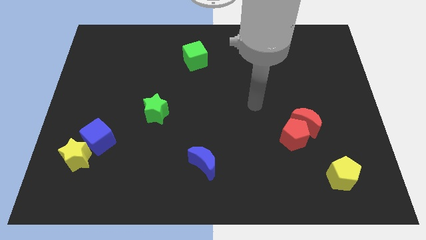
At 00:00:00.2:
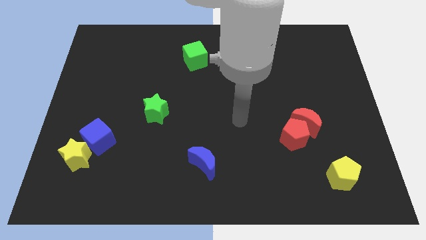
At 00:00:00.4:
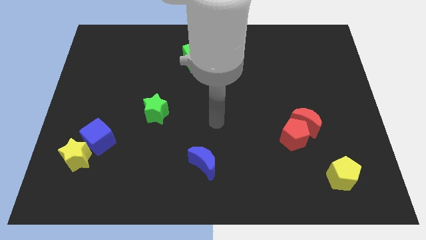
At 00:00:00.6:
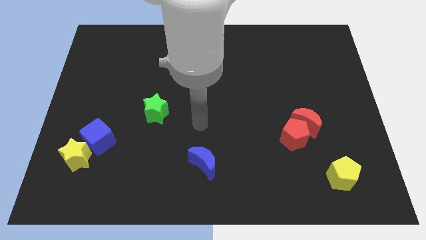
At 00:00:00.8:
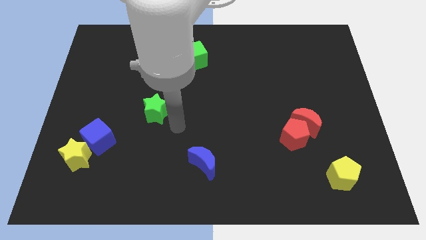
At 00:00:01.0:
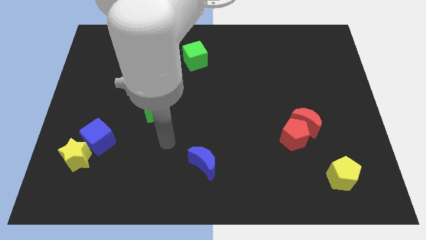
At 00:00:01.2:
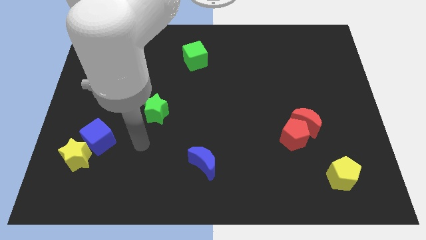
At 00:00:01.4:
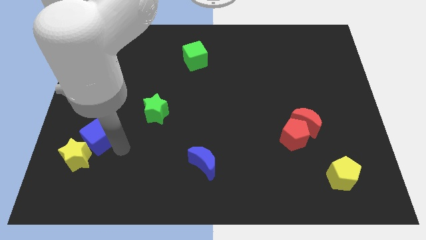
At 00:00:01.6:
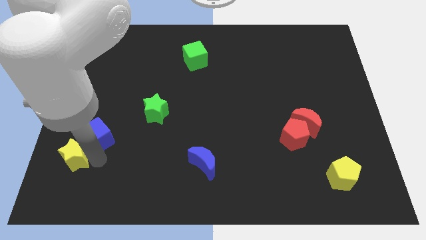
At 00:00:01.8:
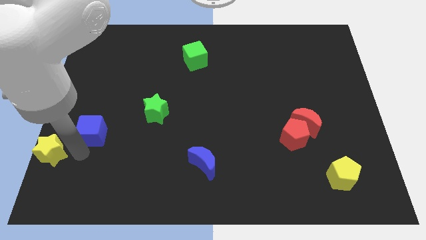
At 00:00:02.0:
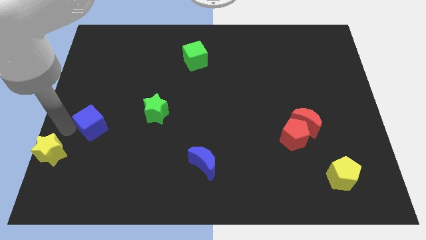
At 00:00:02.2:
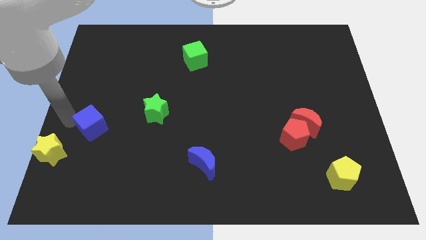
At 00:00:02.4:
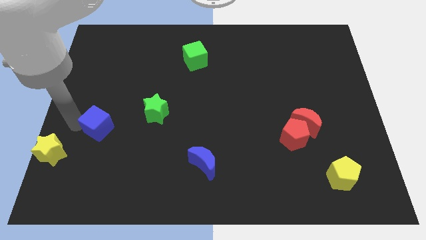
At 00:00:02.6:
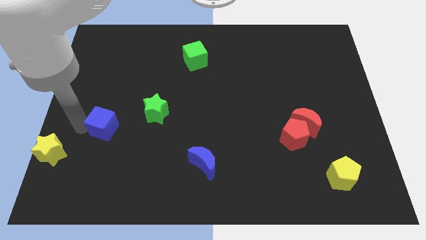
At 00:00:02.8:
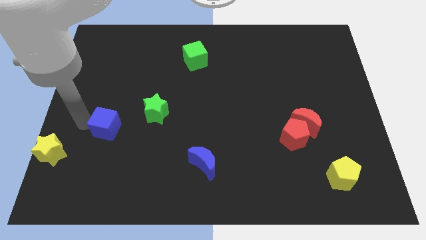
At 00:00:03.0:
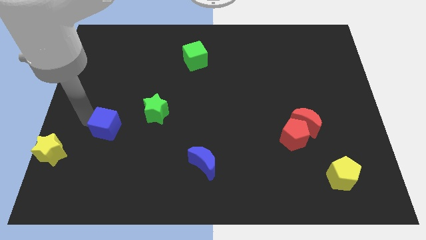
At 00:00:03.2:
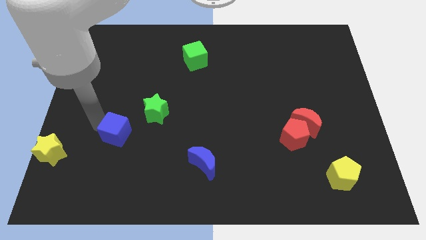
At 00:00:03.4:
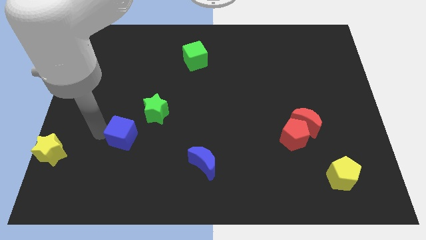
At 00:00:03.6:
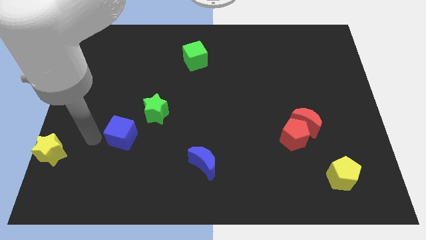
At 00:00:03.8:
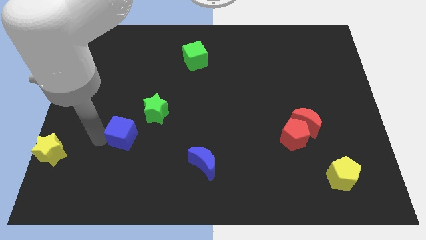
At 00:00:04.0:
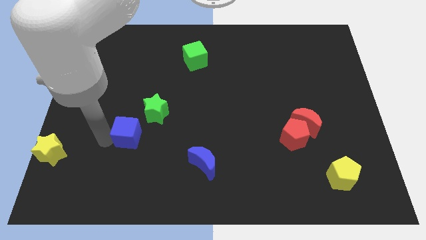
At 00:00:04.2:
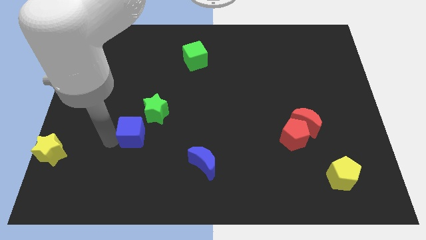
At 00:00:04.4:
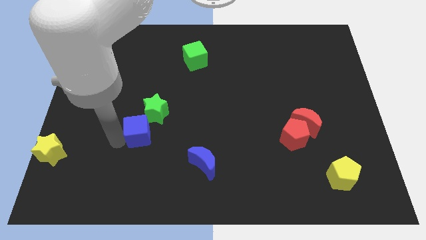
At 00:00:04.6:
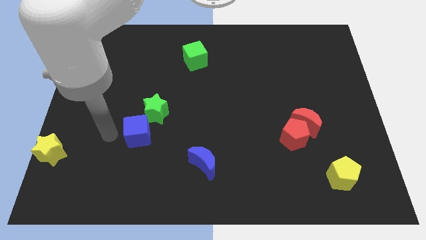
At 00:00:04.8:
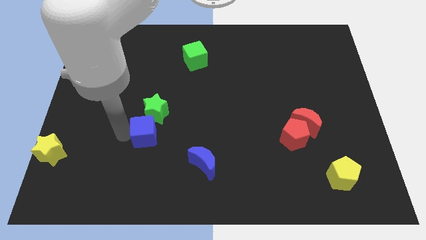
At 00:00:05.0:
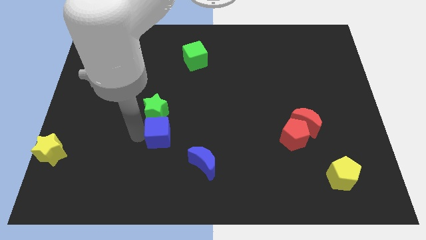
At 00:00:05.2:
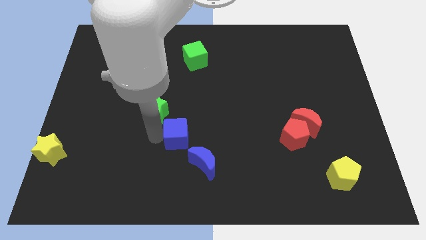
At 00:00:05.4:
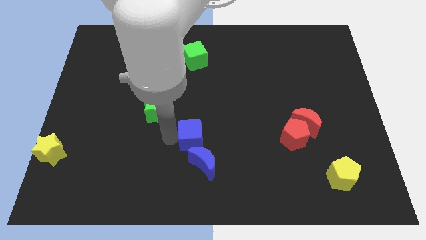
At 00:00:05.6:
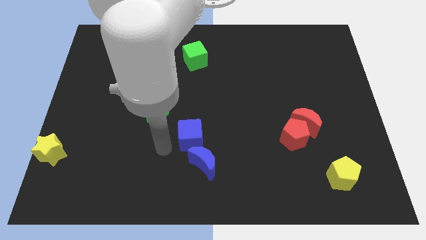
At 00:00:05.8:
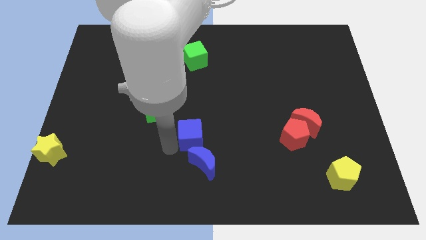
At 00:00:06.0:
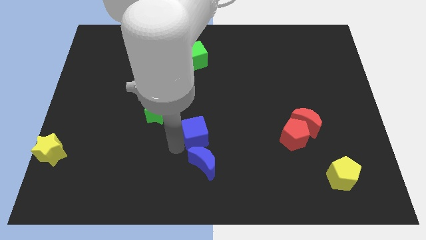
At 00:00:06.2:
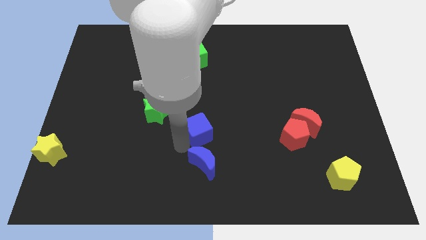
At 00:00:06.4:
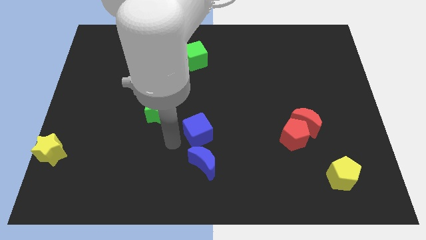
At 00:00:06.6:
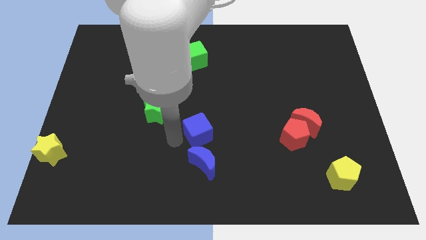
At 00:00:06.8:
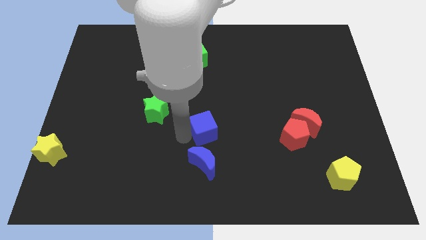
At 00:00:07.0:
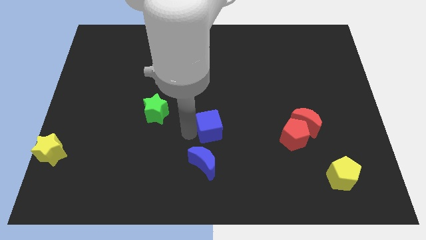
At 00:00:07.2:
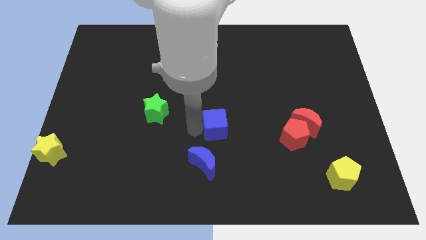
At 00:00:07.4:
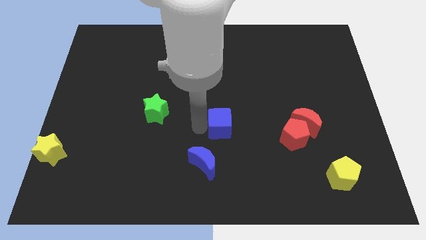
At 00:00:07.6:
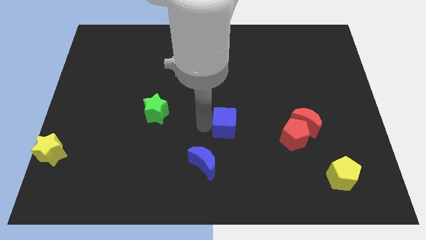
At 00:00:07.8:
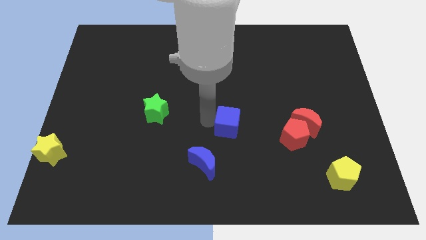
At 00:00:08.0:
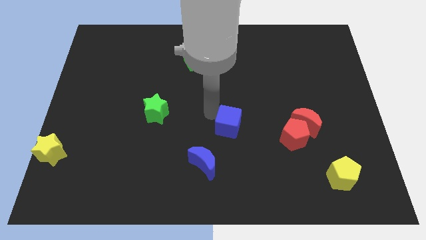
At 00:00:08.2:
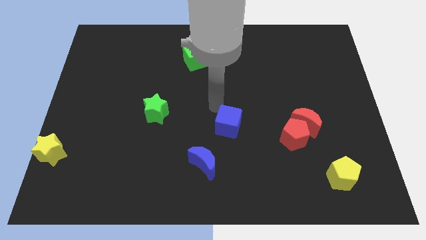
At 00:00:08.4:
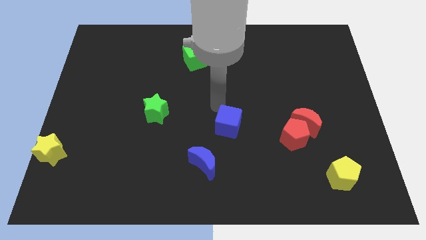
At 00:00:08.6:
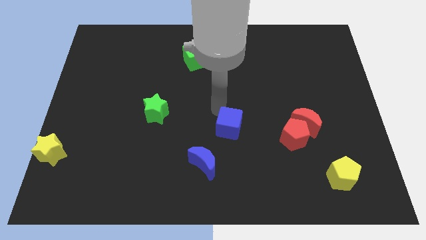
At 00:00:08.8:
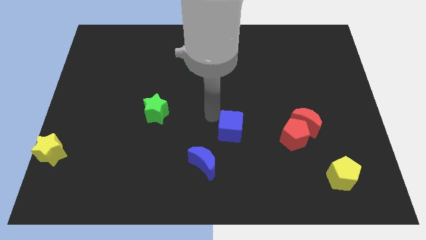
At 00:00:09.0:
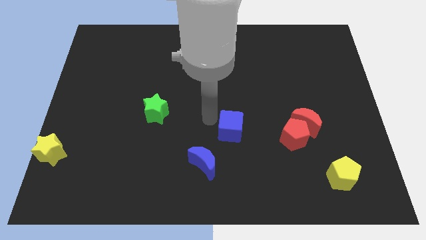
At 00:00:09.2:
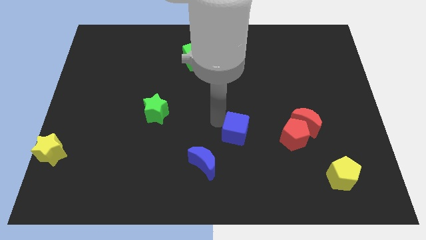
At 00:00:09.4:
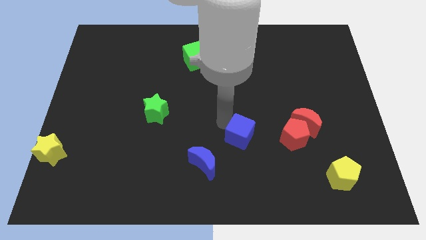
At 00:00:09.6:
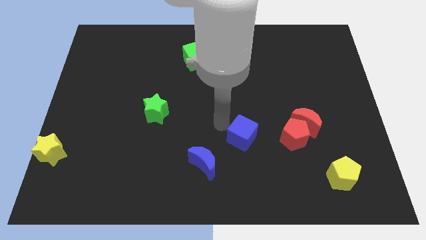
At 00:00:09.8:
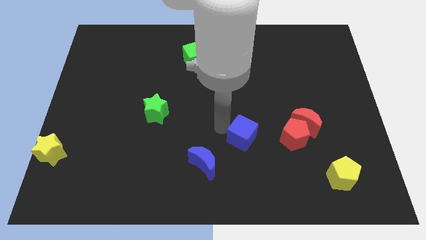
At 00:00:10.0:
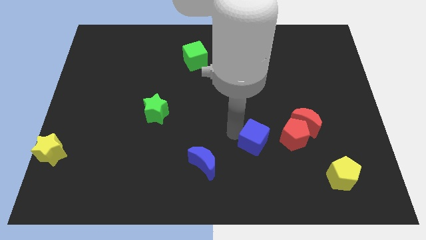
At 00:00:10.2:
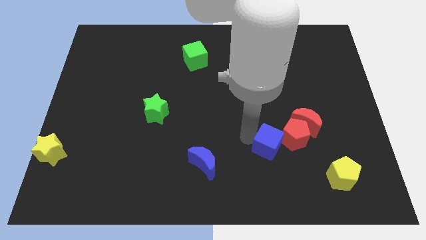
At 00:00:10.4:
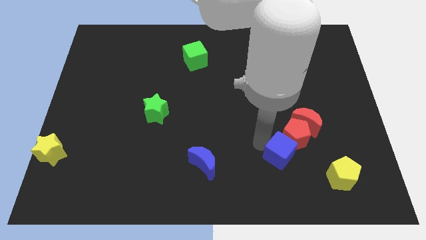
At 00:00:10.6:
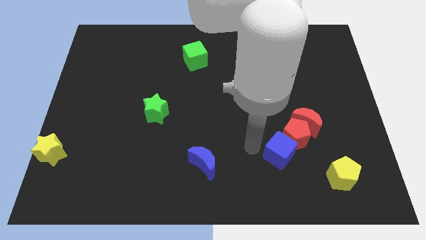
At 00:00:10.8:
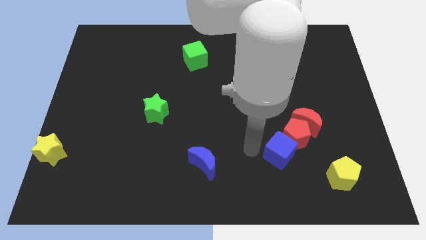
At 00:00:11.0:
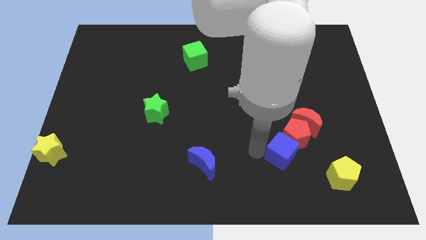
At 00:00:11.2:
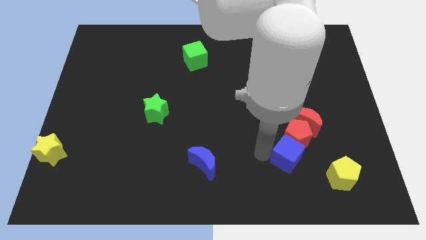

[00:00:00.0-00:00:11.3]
slide the blue cube to the top left side of the yellow pentagon

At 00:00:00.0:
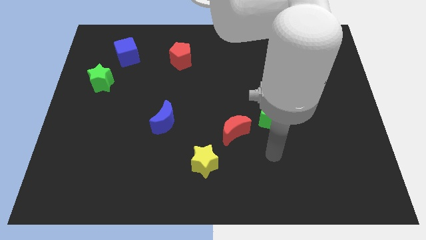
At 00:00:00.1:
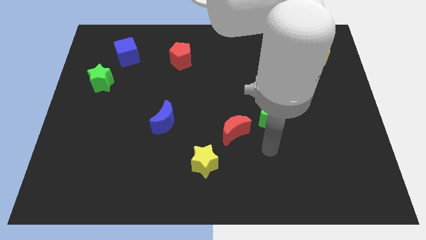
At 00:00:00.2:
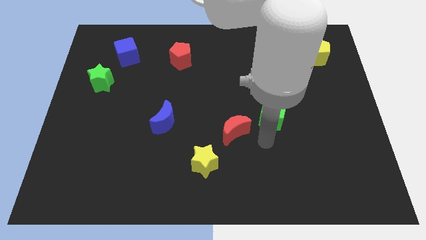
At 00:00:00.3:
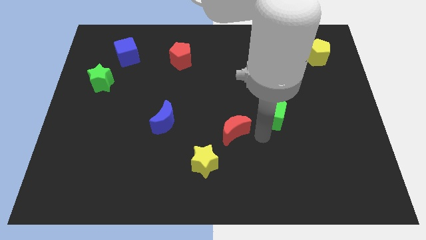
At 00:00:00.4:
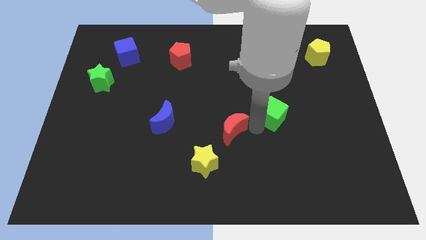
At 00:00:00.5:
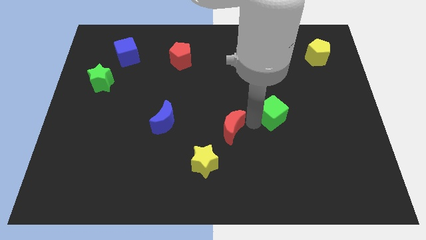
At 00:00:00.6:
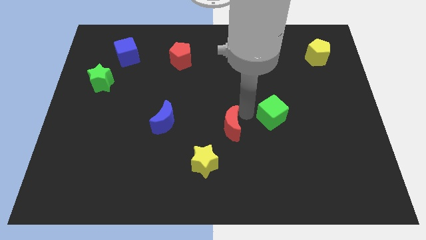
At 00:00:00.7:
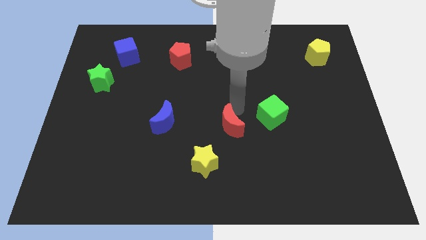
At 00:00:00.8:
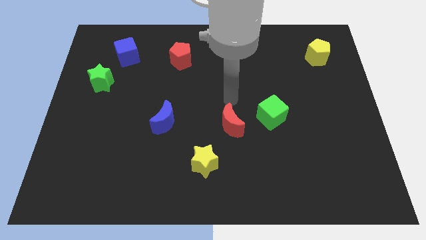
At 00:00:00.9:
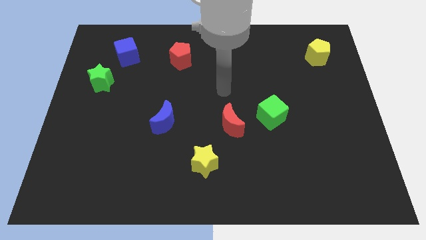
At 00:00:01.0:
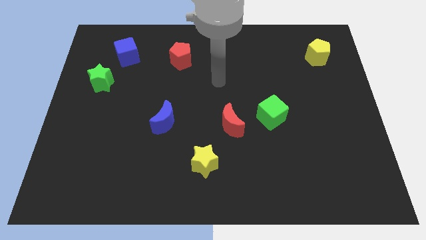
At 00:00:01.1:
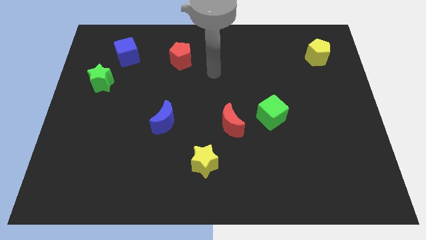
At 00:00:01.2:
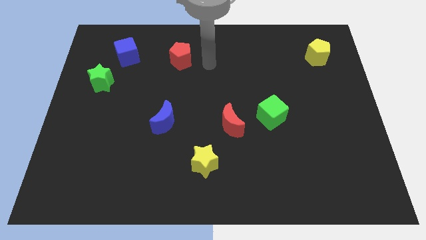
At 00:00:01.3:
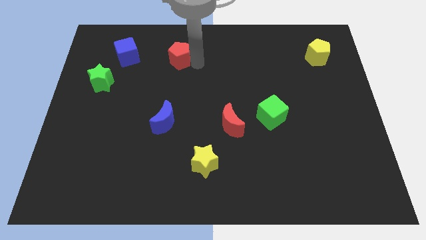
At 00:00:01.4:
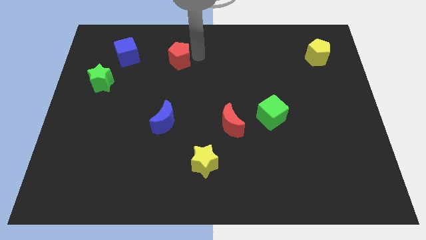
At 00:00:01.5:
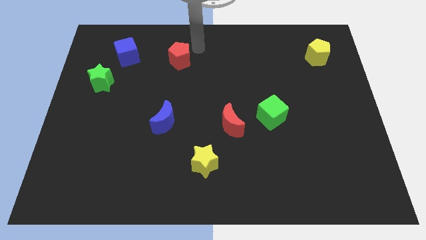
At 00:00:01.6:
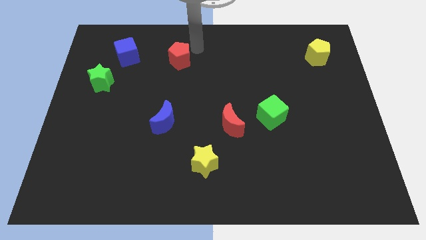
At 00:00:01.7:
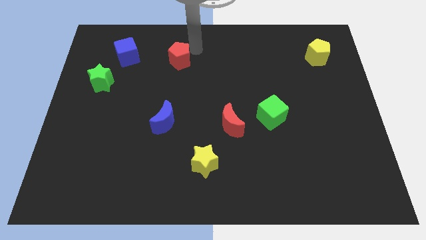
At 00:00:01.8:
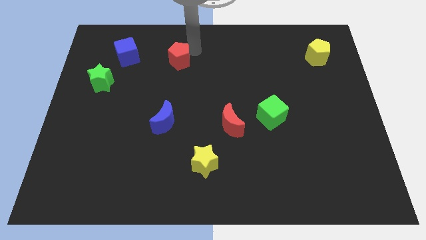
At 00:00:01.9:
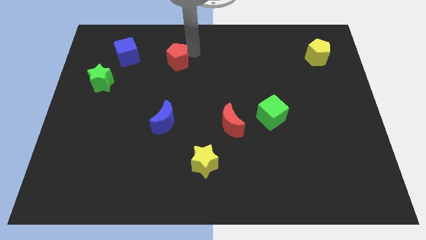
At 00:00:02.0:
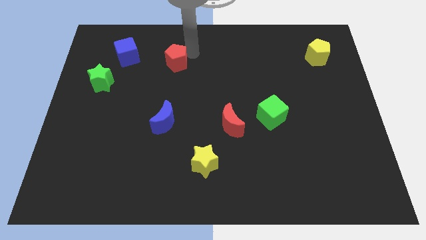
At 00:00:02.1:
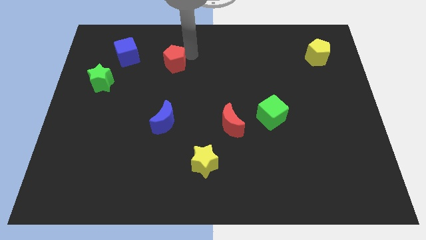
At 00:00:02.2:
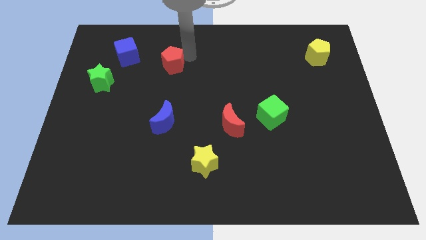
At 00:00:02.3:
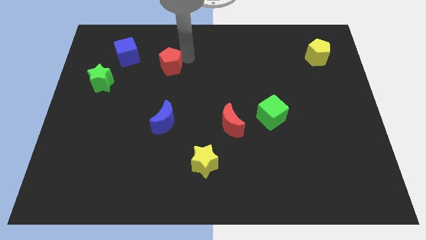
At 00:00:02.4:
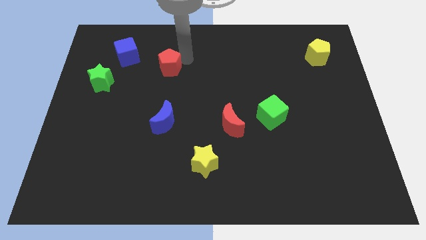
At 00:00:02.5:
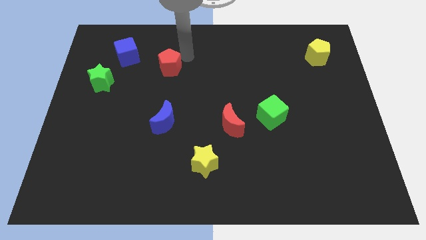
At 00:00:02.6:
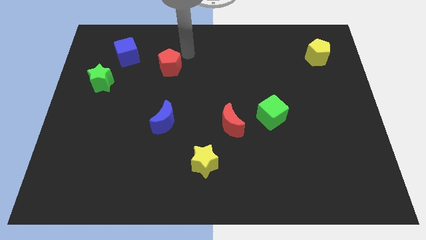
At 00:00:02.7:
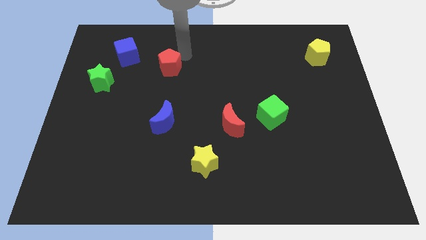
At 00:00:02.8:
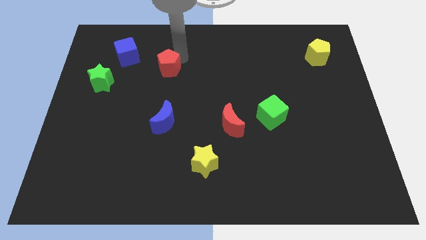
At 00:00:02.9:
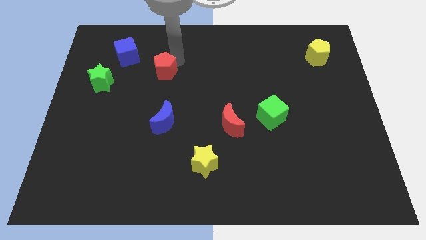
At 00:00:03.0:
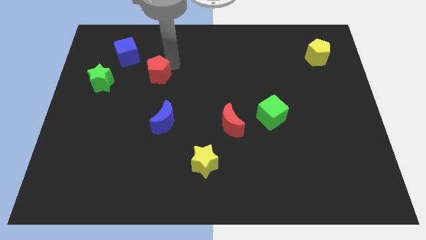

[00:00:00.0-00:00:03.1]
slide the red pentagon to the right of the green star
